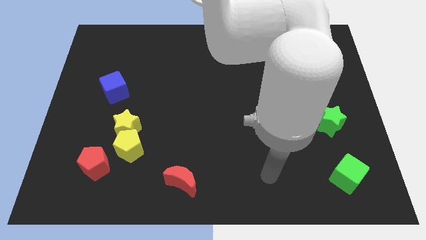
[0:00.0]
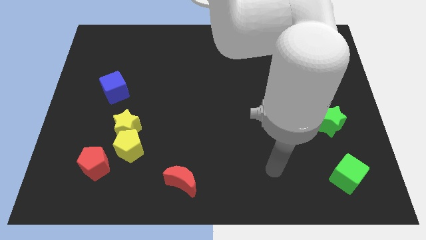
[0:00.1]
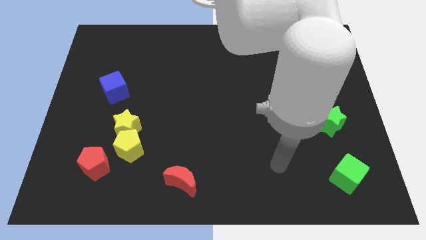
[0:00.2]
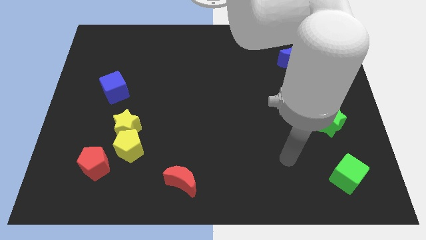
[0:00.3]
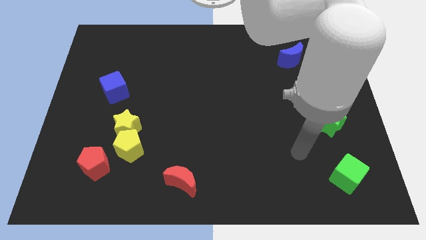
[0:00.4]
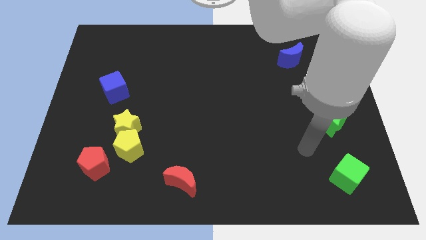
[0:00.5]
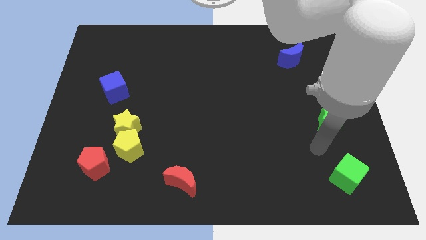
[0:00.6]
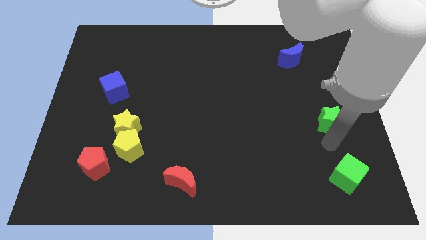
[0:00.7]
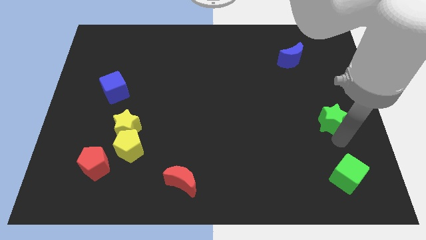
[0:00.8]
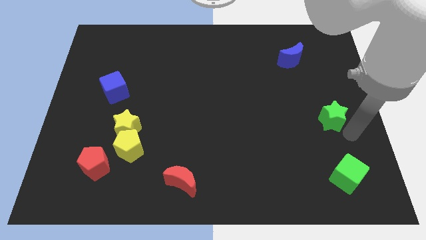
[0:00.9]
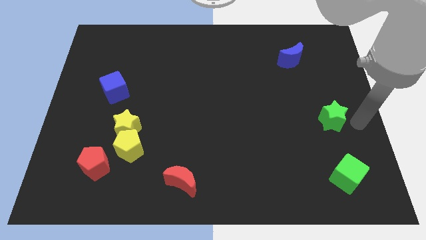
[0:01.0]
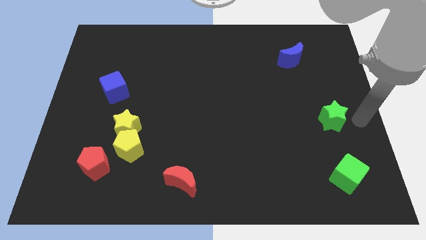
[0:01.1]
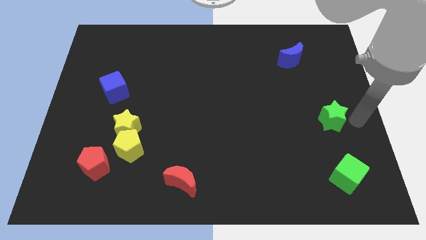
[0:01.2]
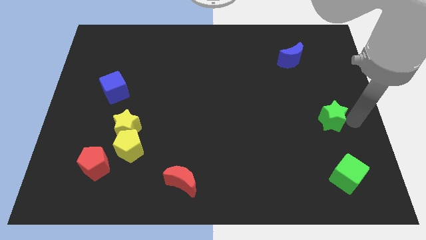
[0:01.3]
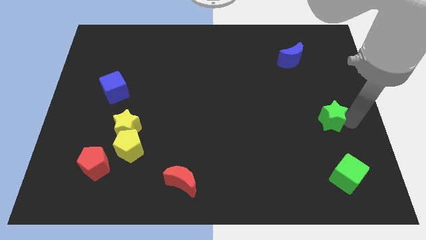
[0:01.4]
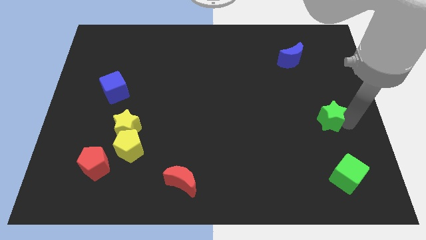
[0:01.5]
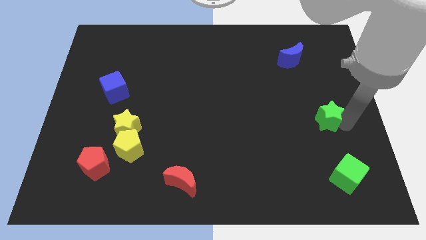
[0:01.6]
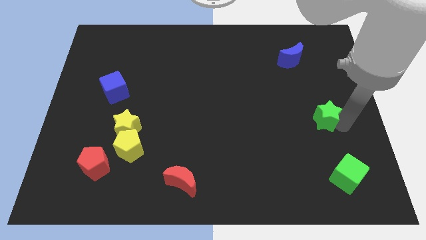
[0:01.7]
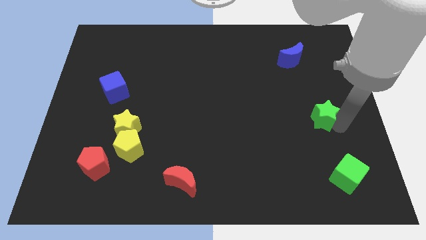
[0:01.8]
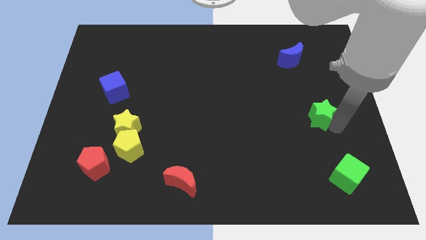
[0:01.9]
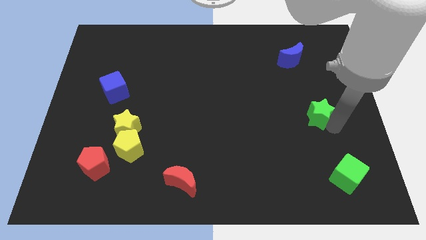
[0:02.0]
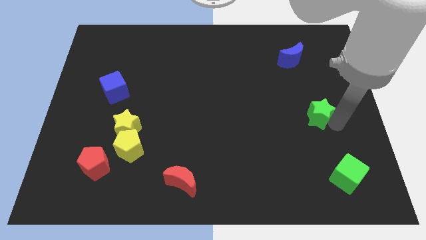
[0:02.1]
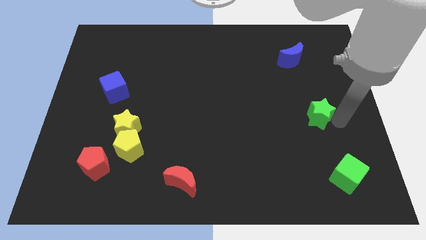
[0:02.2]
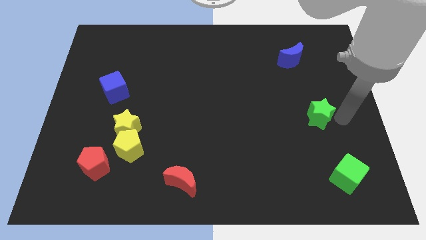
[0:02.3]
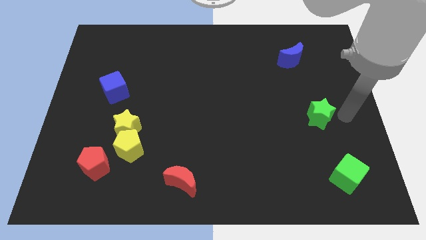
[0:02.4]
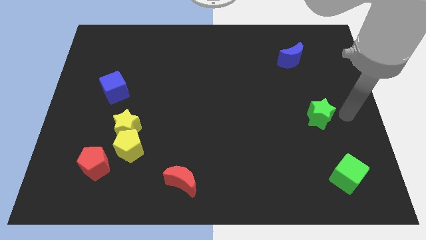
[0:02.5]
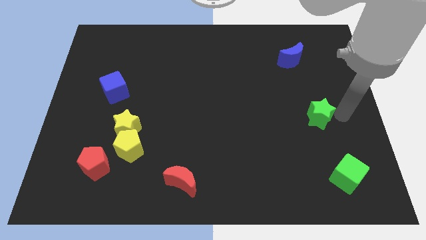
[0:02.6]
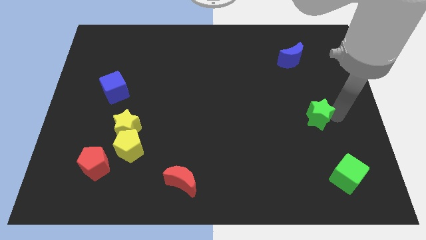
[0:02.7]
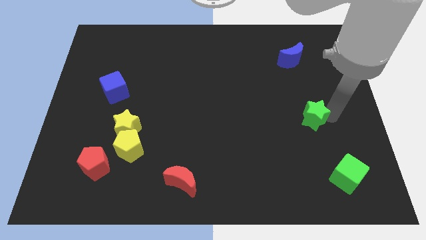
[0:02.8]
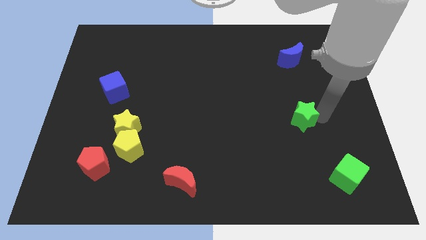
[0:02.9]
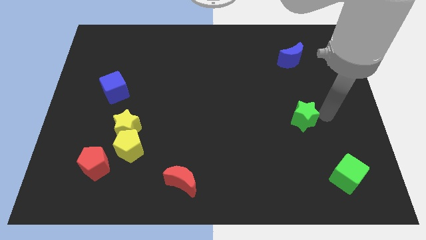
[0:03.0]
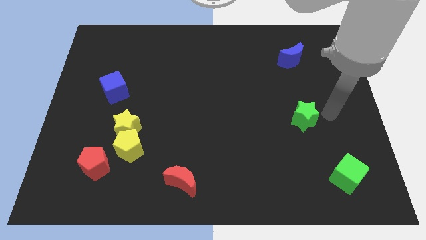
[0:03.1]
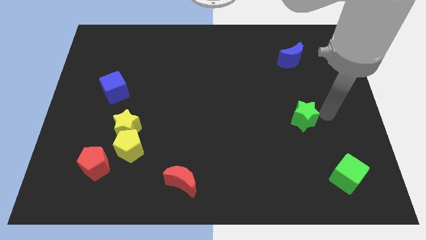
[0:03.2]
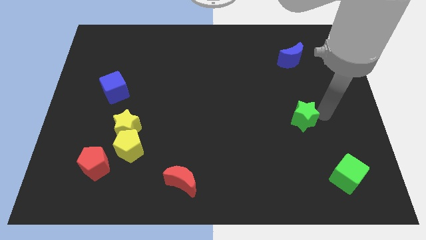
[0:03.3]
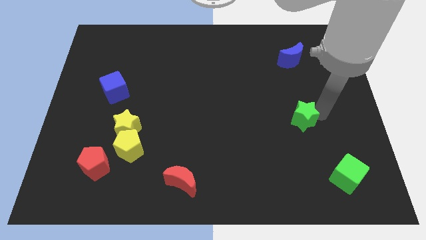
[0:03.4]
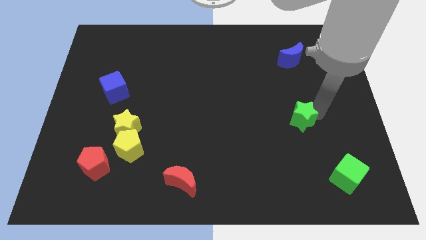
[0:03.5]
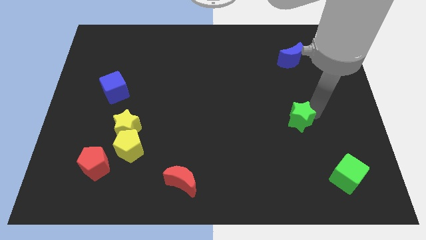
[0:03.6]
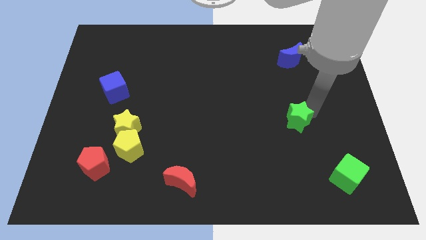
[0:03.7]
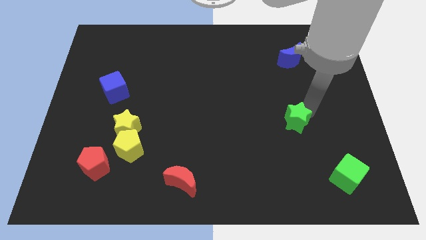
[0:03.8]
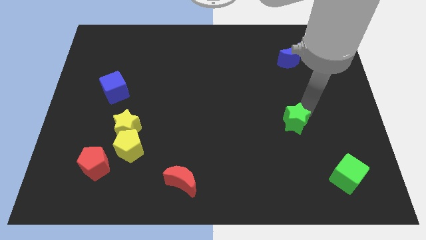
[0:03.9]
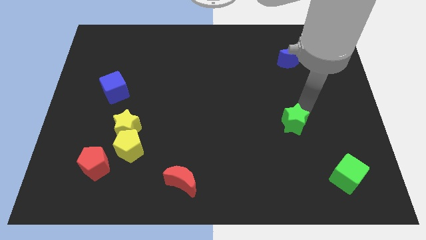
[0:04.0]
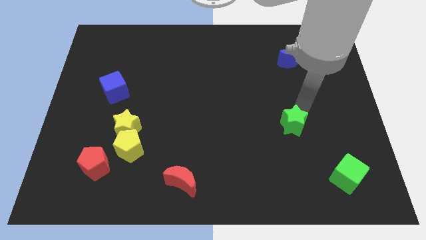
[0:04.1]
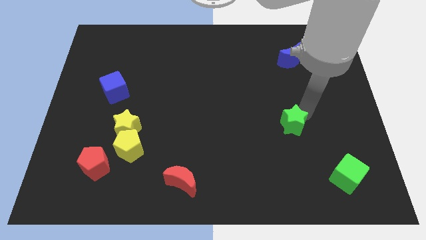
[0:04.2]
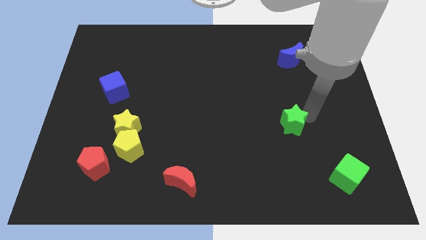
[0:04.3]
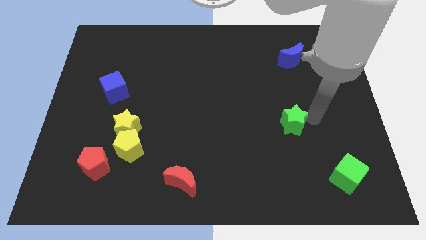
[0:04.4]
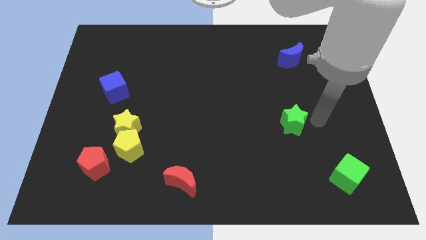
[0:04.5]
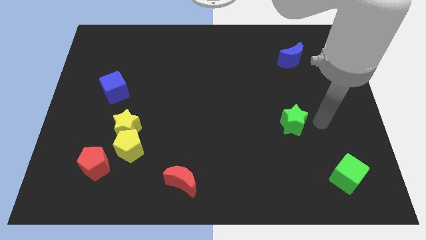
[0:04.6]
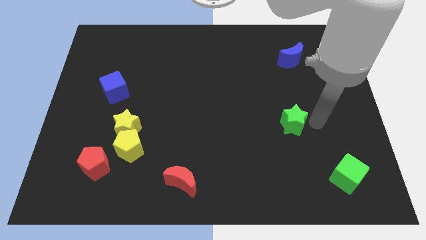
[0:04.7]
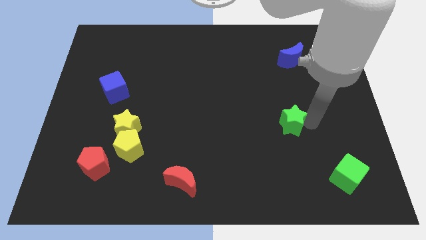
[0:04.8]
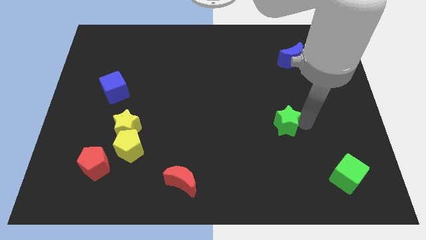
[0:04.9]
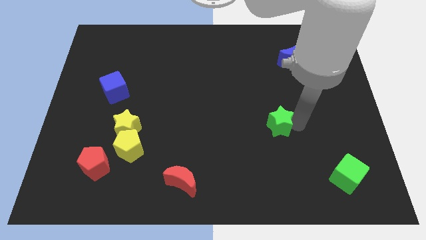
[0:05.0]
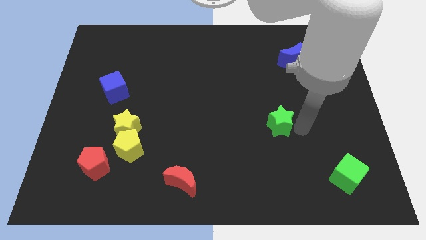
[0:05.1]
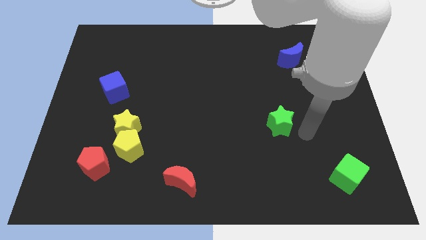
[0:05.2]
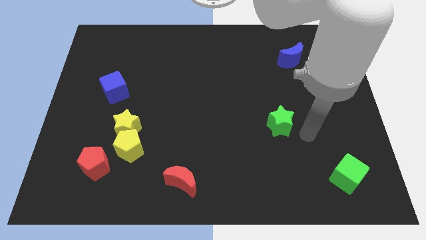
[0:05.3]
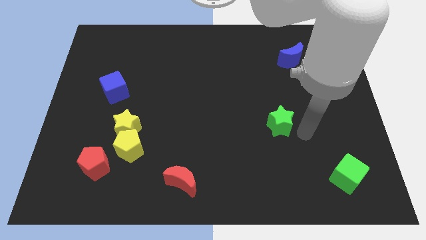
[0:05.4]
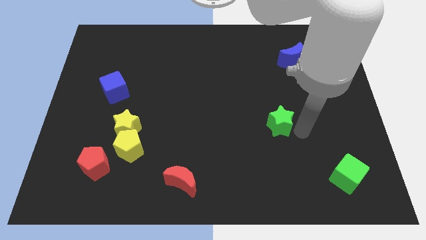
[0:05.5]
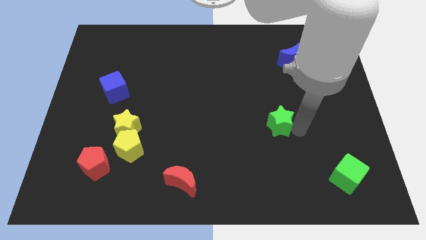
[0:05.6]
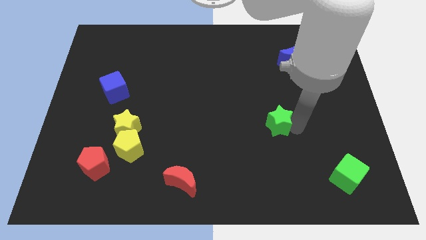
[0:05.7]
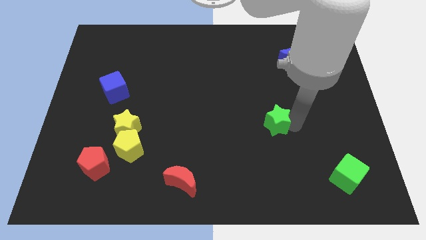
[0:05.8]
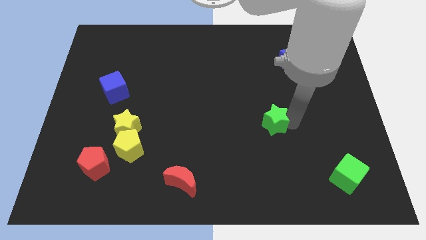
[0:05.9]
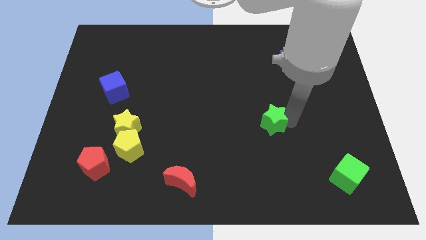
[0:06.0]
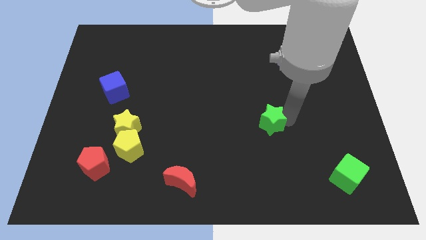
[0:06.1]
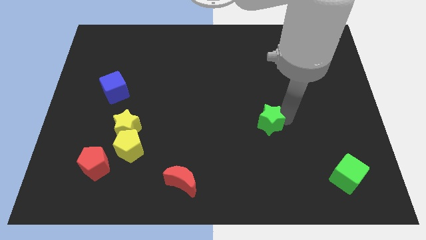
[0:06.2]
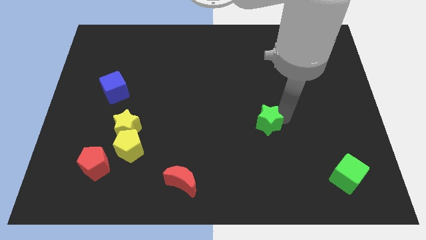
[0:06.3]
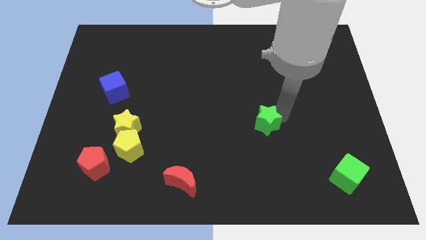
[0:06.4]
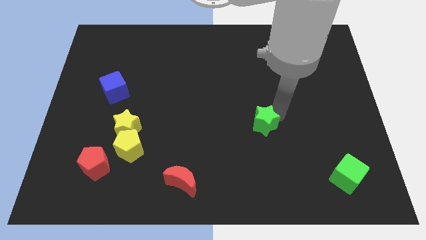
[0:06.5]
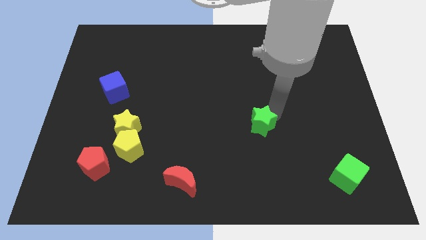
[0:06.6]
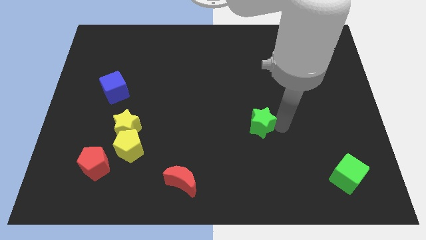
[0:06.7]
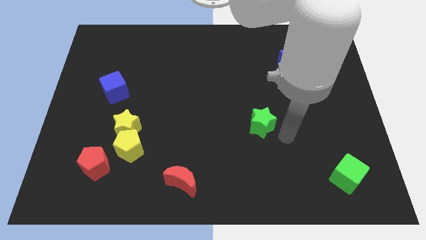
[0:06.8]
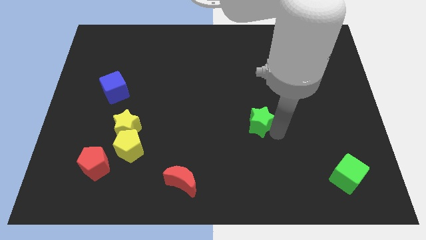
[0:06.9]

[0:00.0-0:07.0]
slide the green star to the center

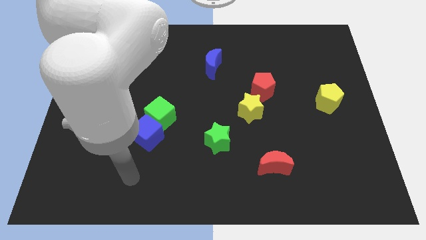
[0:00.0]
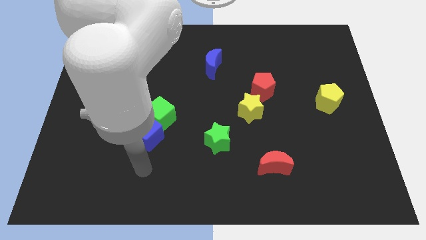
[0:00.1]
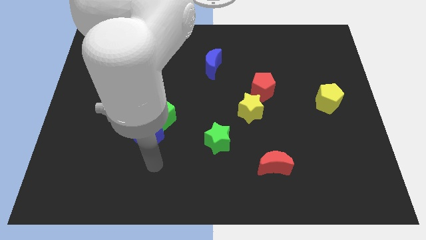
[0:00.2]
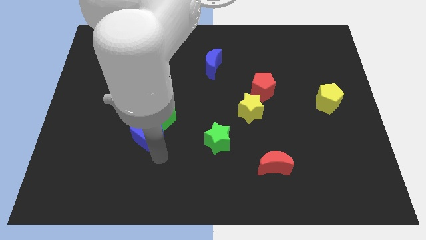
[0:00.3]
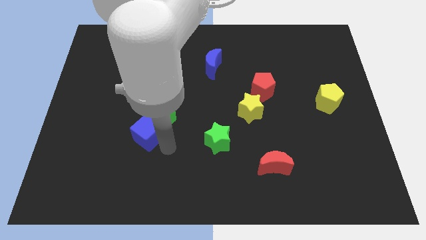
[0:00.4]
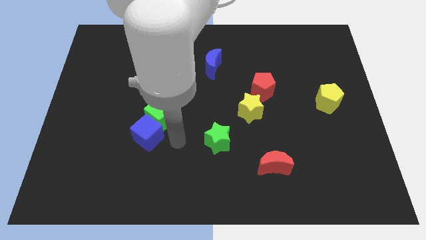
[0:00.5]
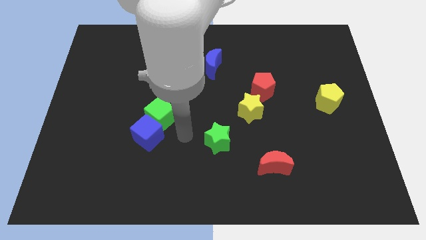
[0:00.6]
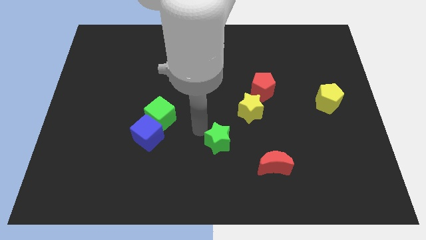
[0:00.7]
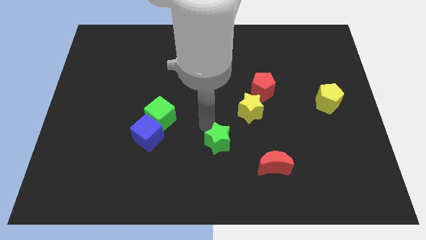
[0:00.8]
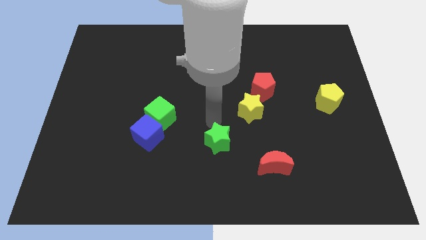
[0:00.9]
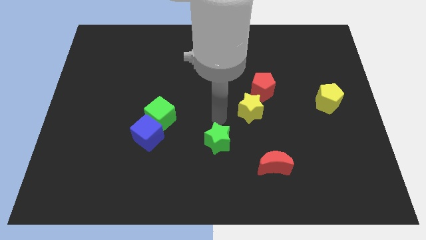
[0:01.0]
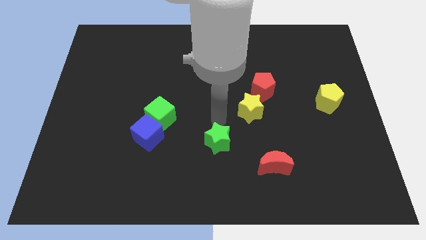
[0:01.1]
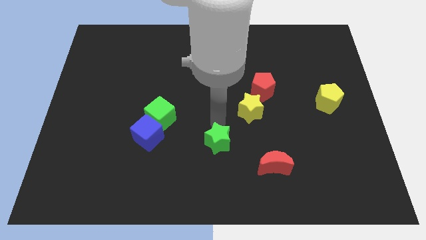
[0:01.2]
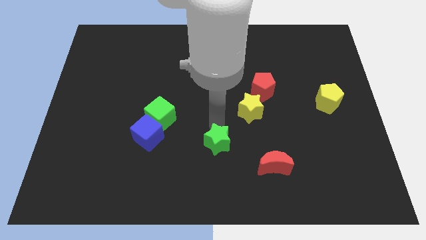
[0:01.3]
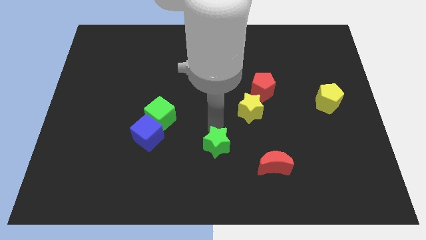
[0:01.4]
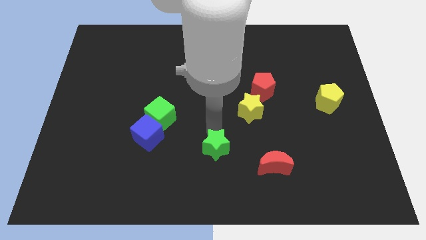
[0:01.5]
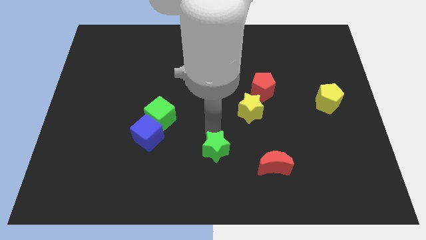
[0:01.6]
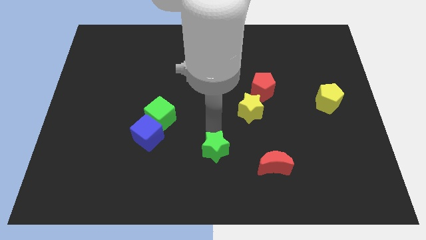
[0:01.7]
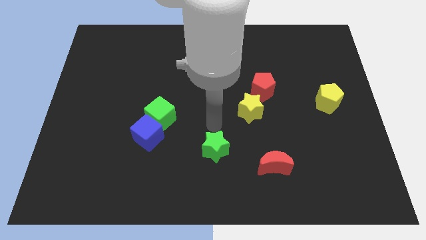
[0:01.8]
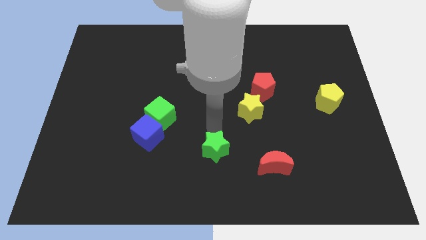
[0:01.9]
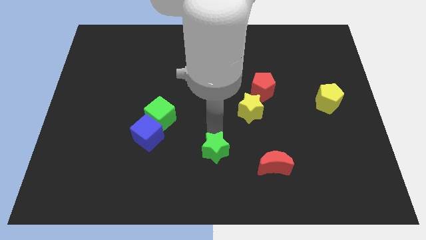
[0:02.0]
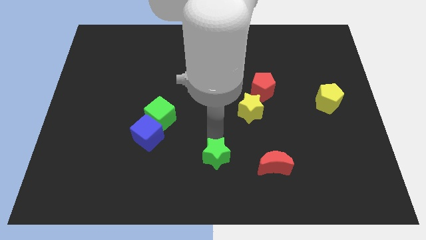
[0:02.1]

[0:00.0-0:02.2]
put the green star to the bottom side
